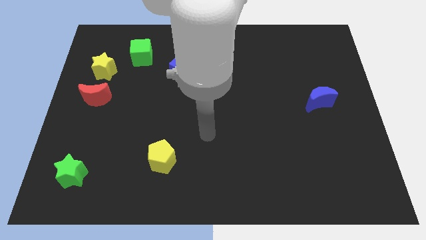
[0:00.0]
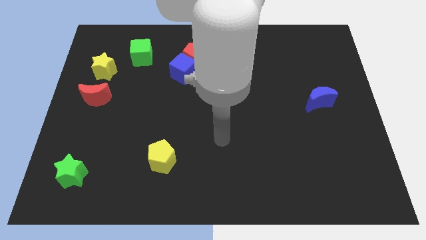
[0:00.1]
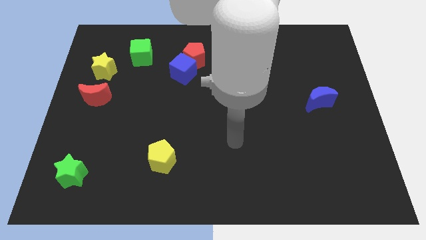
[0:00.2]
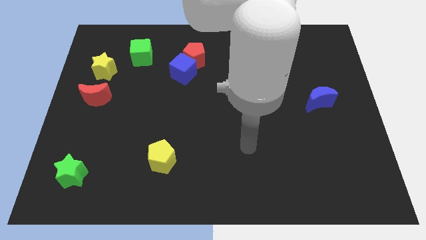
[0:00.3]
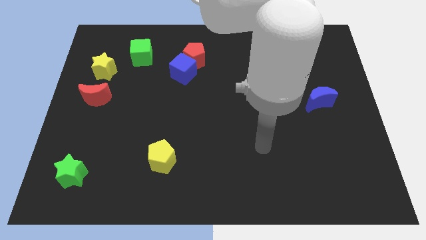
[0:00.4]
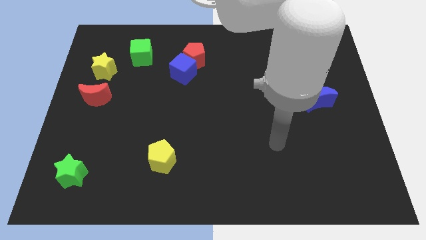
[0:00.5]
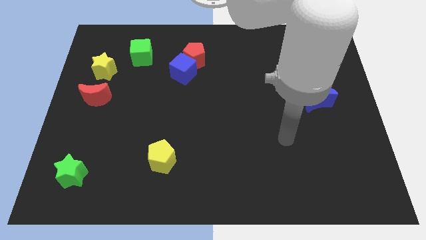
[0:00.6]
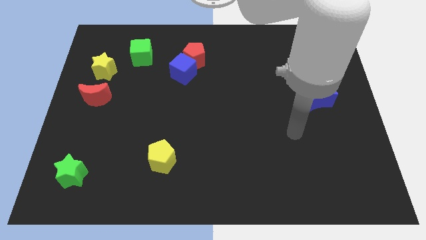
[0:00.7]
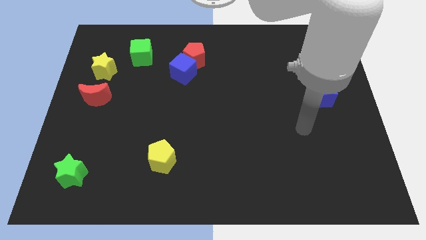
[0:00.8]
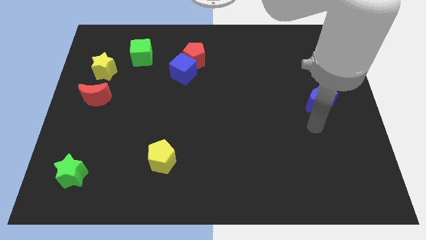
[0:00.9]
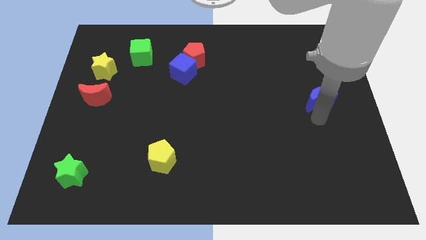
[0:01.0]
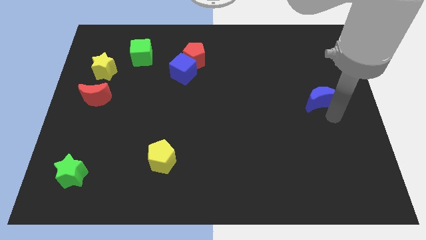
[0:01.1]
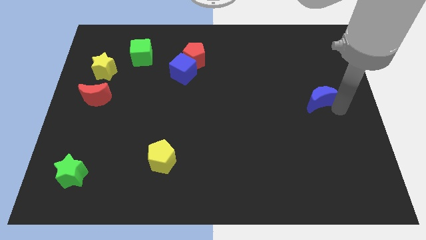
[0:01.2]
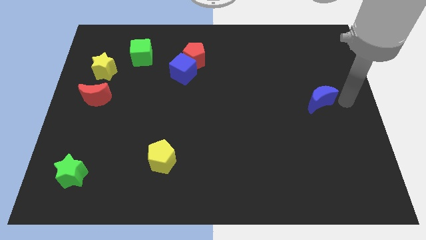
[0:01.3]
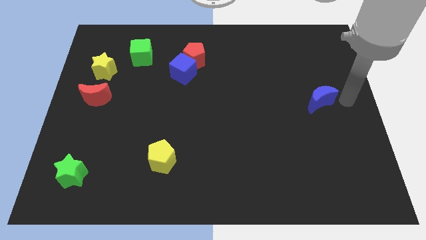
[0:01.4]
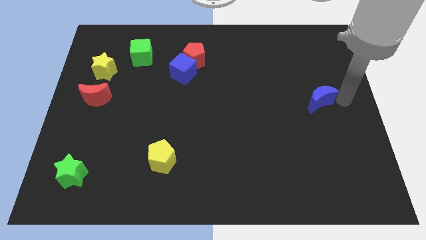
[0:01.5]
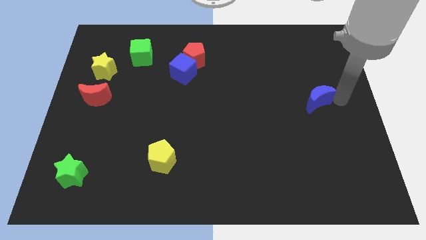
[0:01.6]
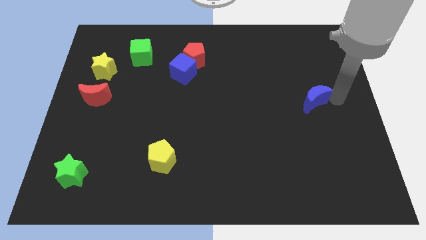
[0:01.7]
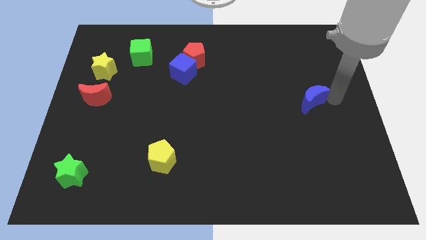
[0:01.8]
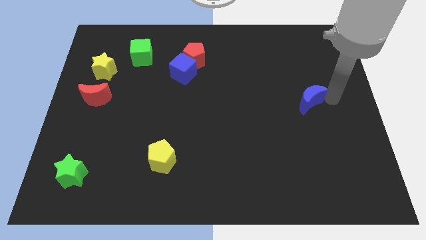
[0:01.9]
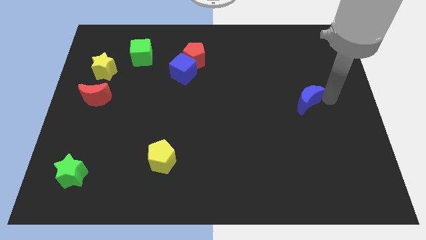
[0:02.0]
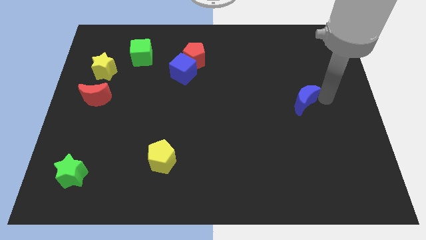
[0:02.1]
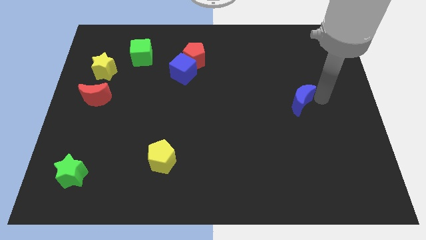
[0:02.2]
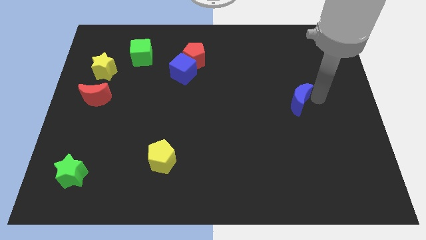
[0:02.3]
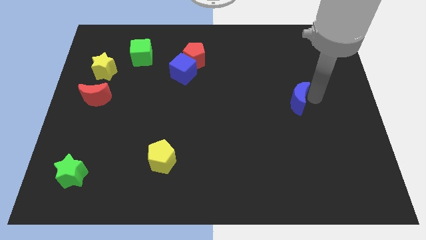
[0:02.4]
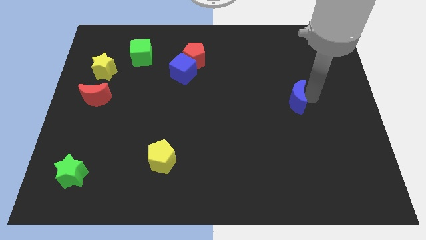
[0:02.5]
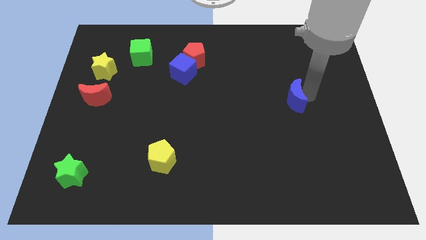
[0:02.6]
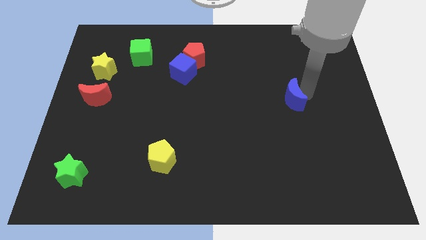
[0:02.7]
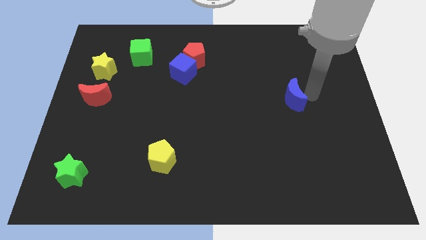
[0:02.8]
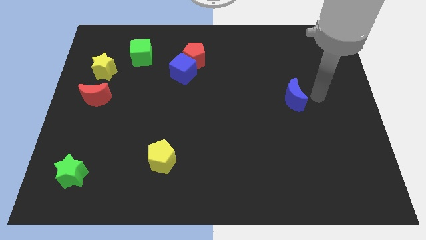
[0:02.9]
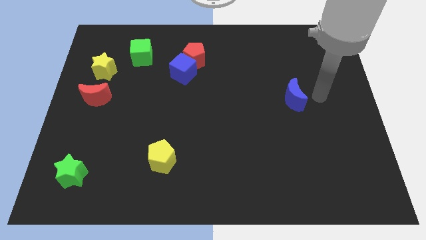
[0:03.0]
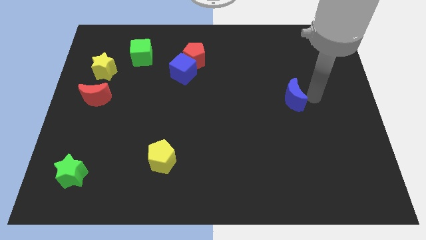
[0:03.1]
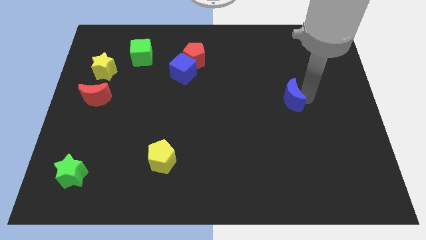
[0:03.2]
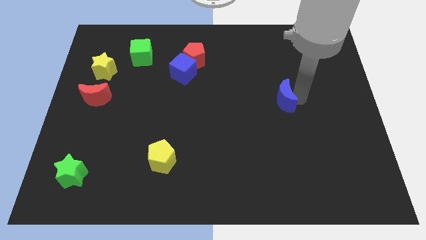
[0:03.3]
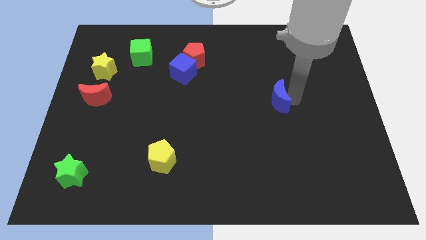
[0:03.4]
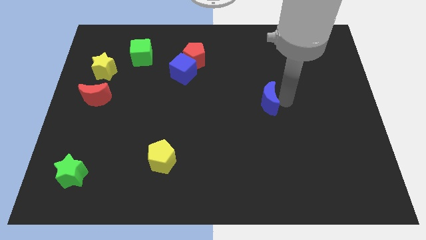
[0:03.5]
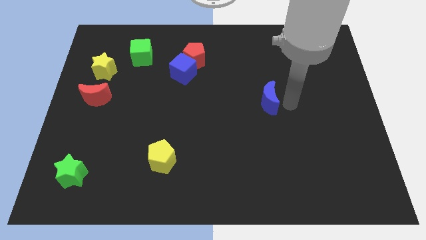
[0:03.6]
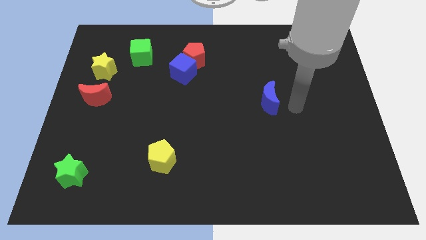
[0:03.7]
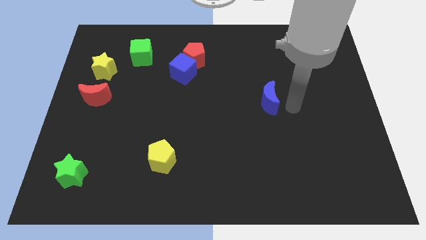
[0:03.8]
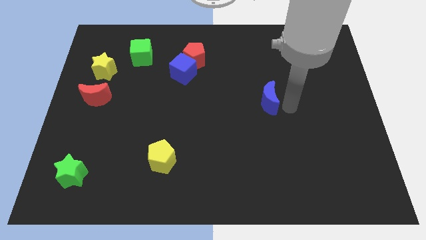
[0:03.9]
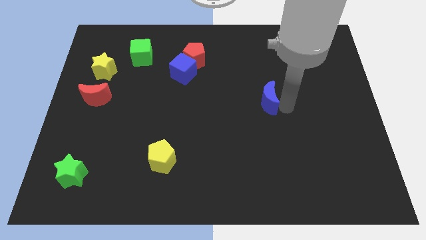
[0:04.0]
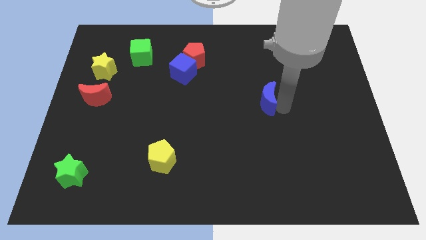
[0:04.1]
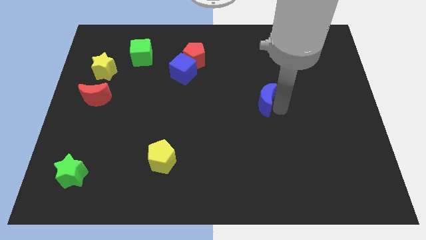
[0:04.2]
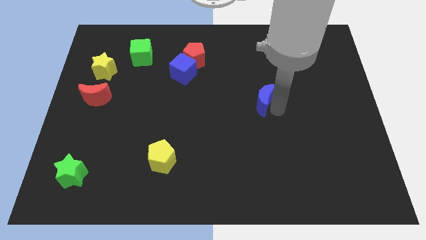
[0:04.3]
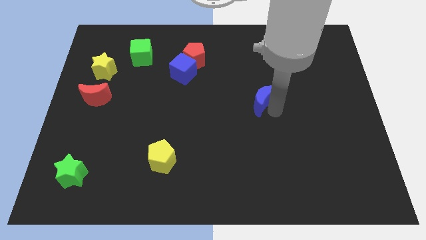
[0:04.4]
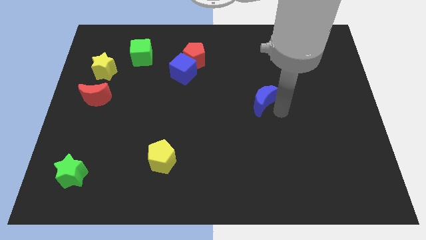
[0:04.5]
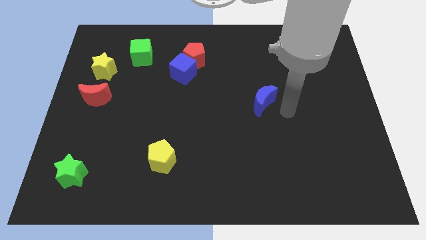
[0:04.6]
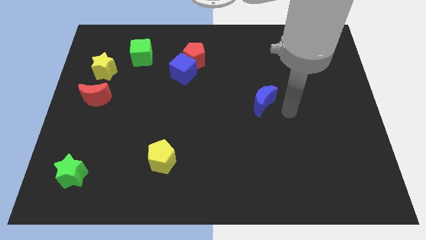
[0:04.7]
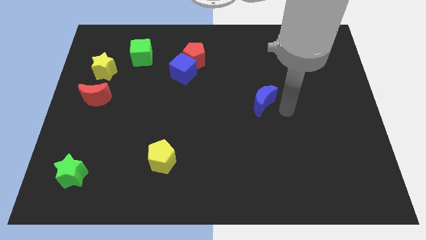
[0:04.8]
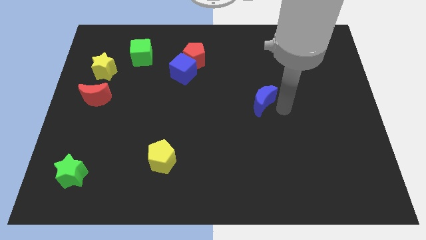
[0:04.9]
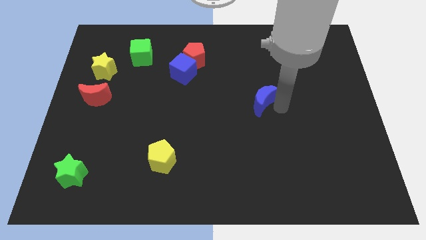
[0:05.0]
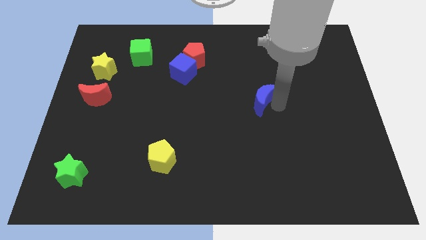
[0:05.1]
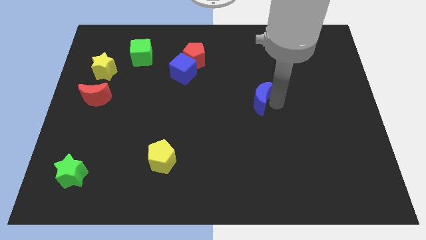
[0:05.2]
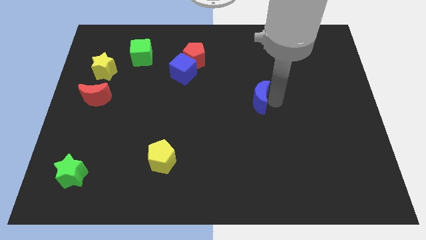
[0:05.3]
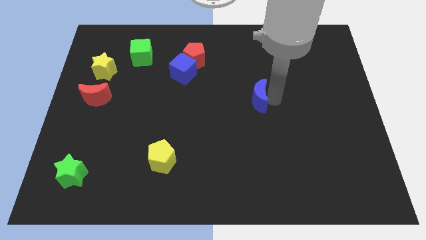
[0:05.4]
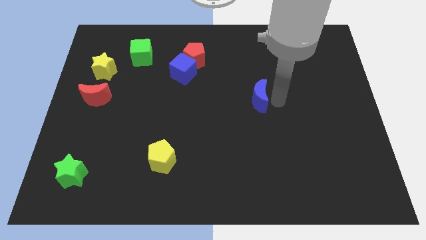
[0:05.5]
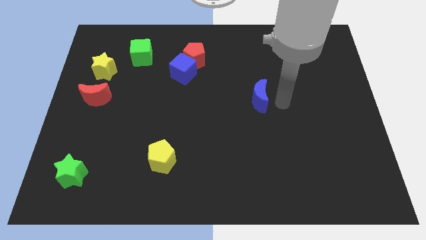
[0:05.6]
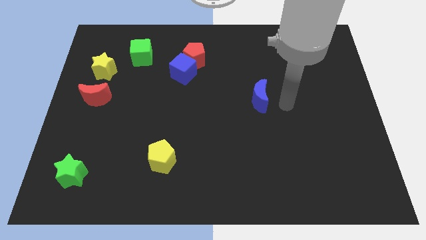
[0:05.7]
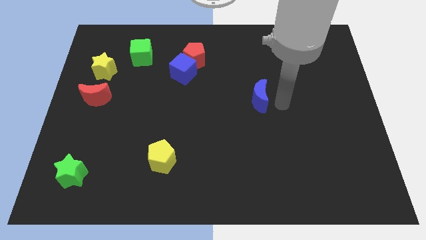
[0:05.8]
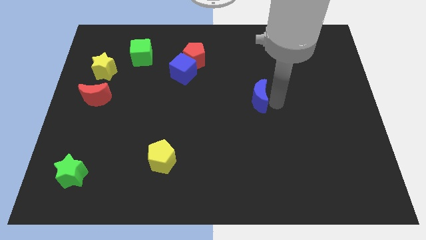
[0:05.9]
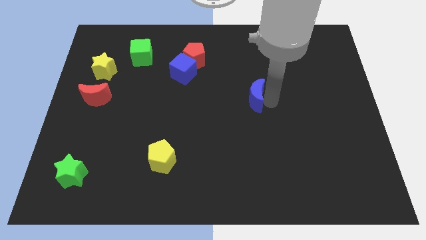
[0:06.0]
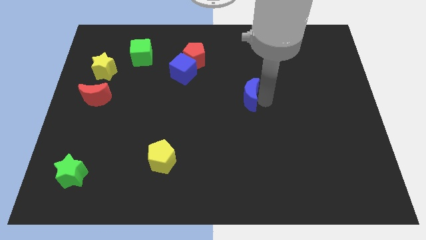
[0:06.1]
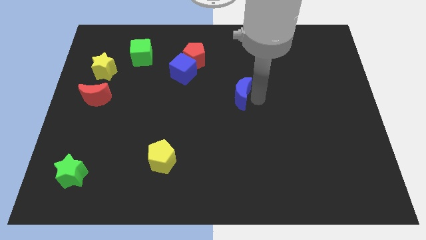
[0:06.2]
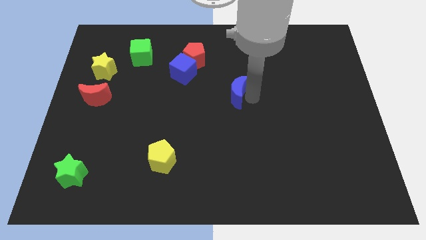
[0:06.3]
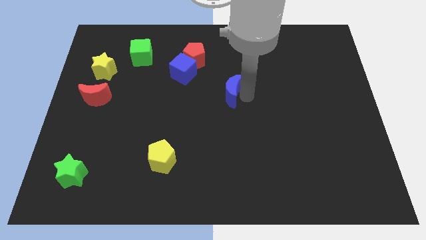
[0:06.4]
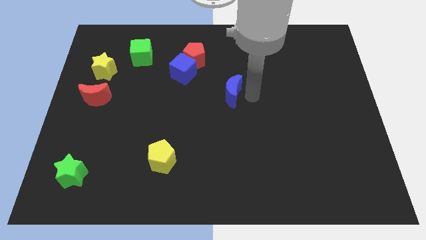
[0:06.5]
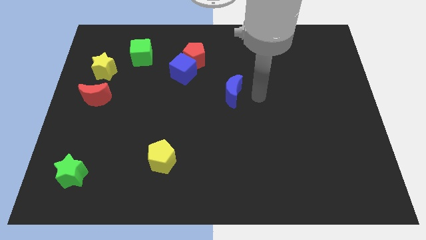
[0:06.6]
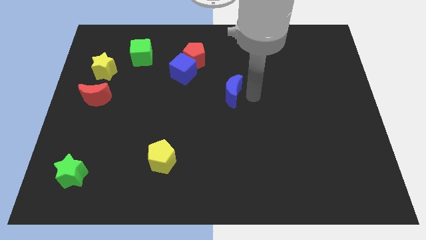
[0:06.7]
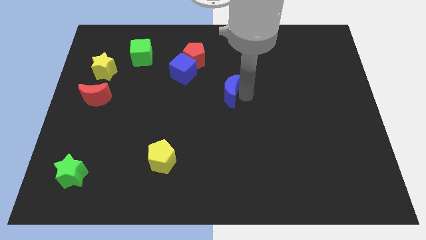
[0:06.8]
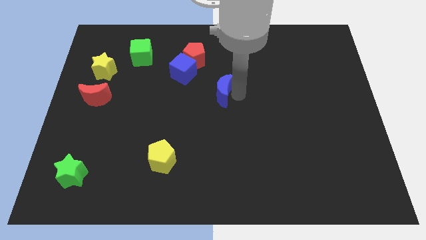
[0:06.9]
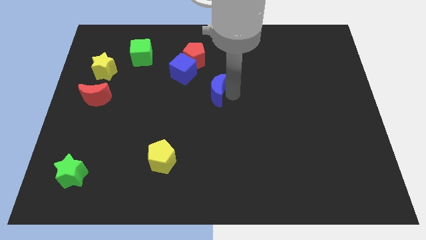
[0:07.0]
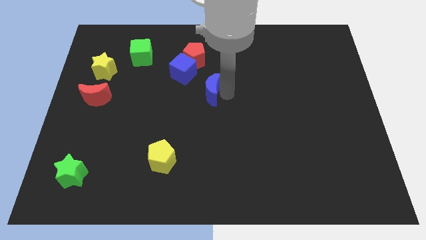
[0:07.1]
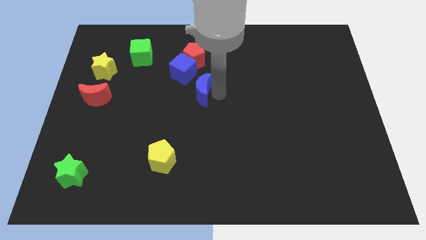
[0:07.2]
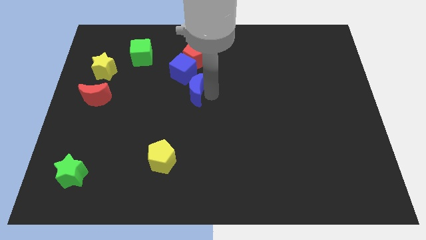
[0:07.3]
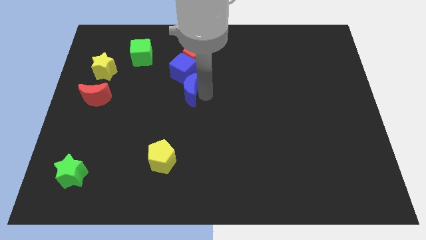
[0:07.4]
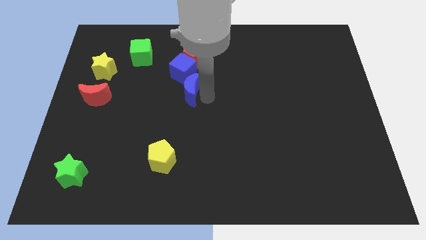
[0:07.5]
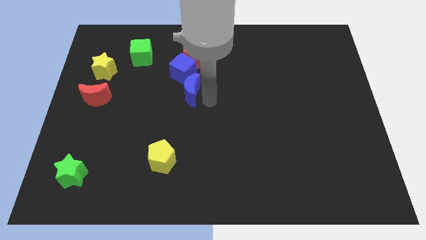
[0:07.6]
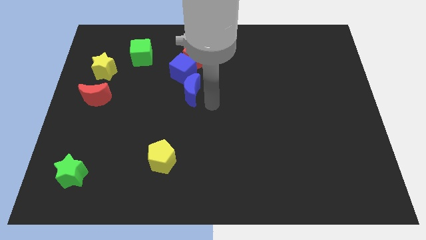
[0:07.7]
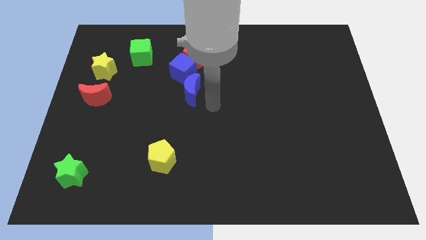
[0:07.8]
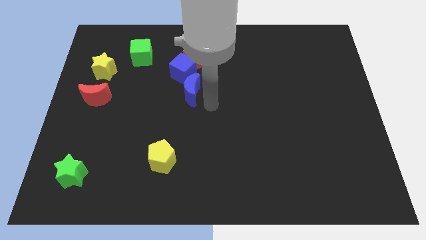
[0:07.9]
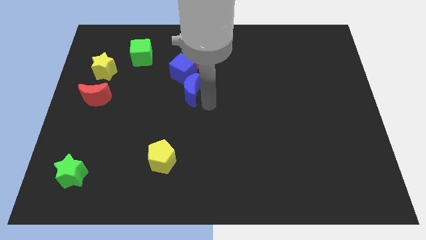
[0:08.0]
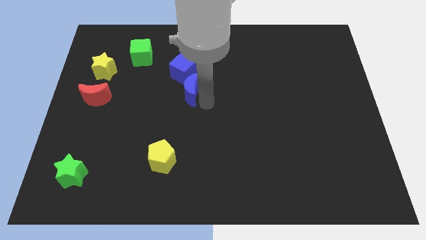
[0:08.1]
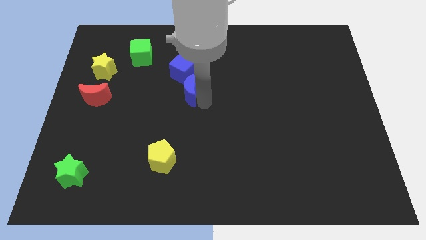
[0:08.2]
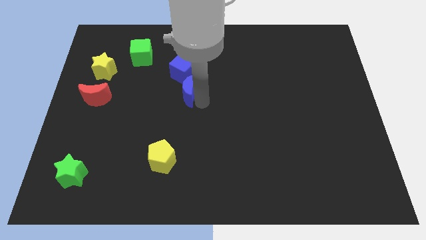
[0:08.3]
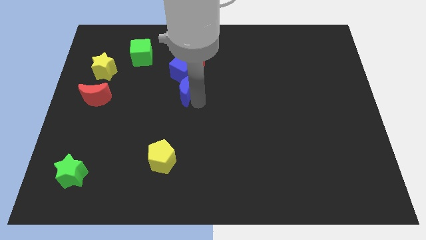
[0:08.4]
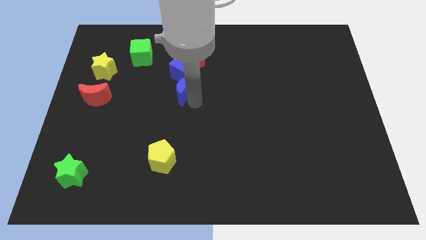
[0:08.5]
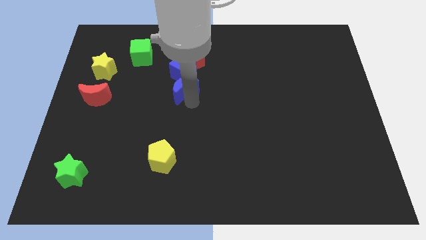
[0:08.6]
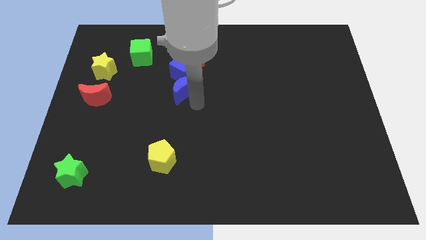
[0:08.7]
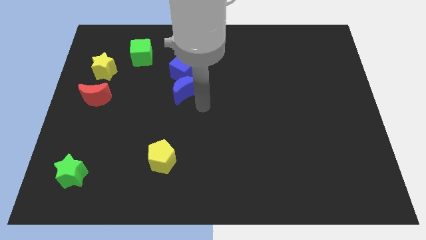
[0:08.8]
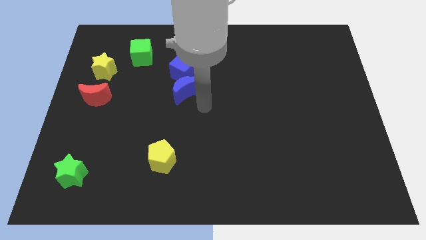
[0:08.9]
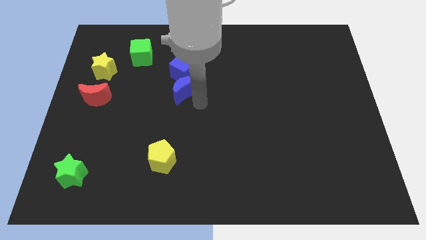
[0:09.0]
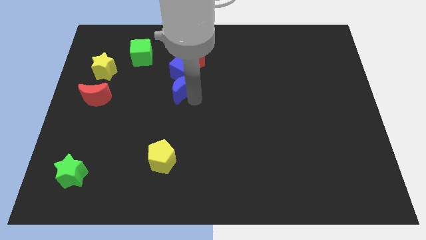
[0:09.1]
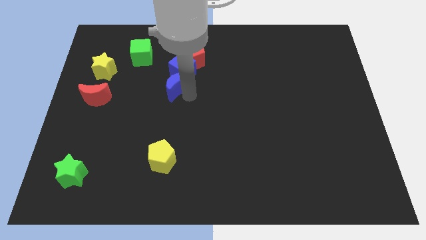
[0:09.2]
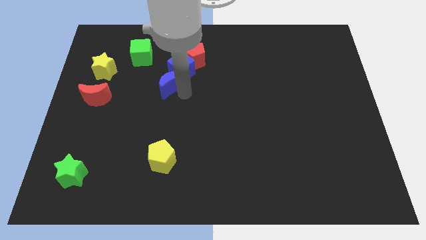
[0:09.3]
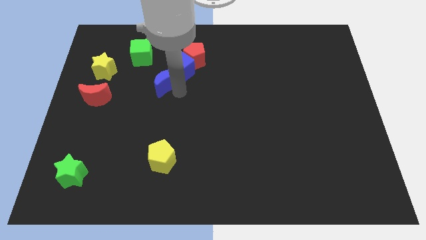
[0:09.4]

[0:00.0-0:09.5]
put the blue moon to the bottom right of the green cube
